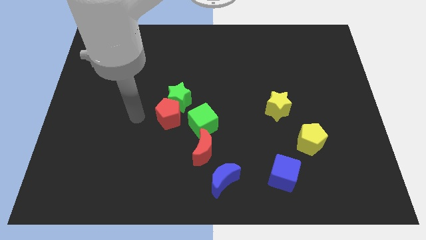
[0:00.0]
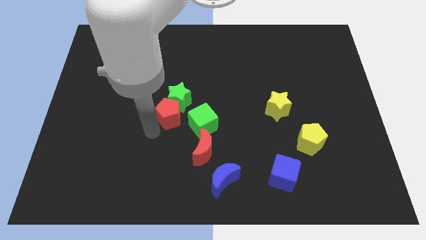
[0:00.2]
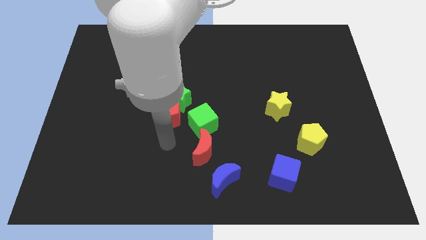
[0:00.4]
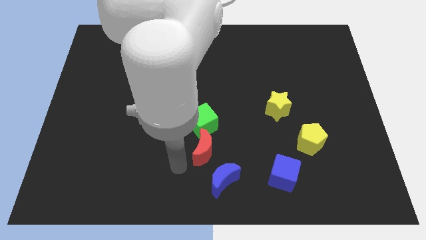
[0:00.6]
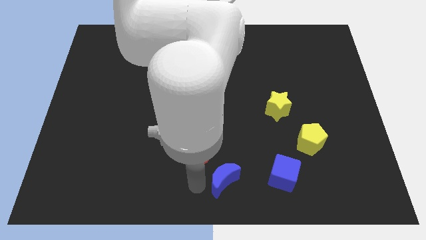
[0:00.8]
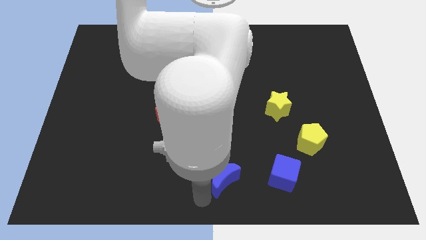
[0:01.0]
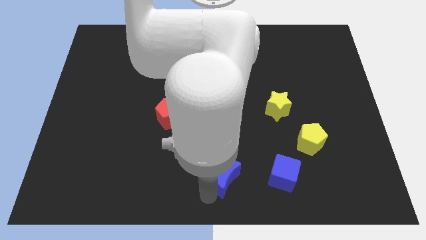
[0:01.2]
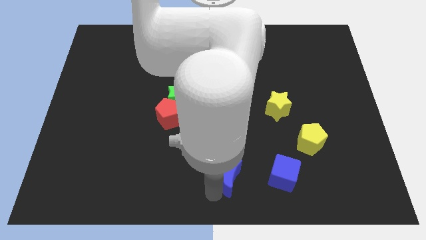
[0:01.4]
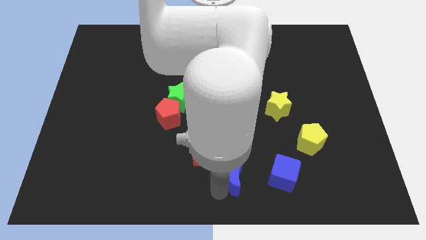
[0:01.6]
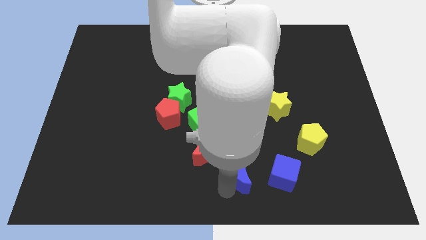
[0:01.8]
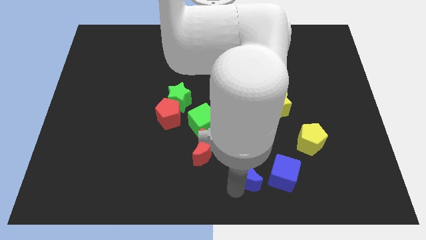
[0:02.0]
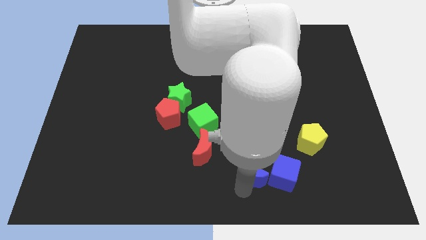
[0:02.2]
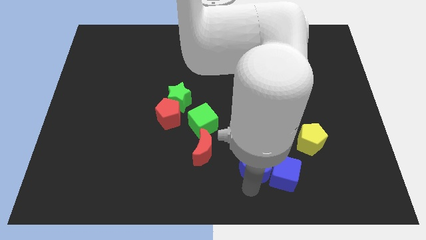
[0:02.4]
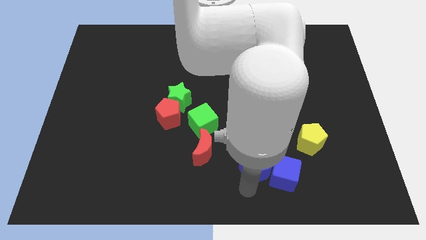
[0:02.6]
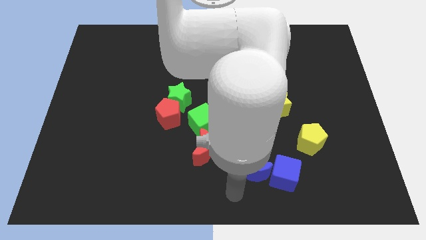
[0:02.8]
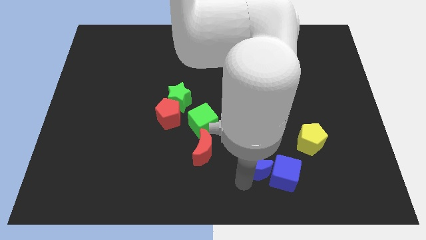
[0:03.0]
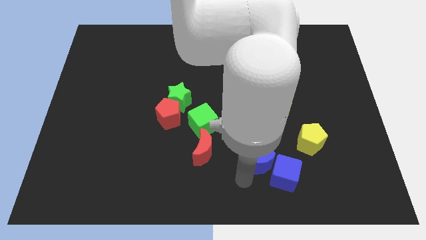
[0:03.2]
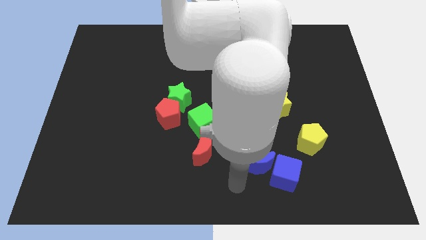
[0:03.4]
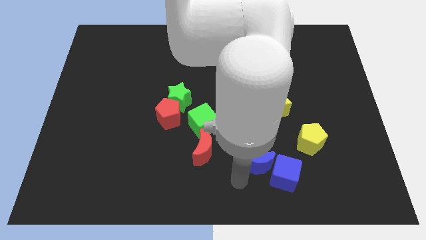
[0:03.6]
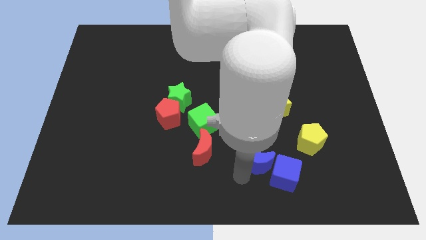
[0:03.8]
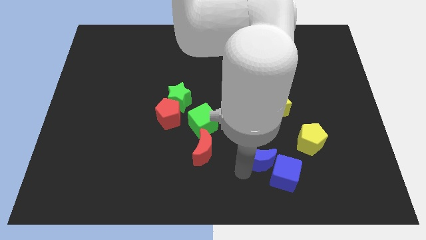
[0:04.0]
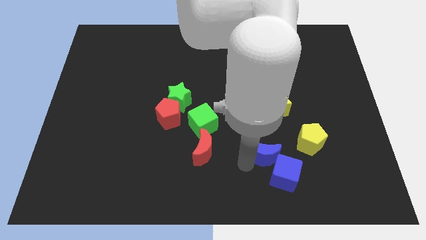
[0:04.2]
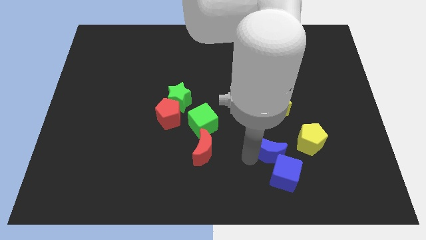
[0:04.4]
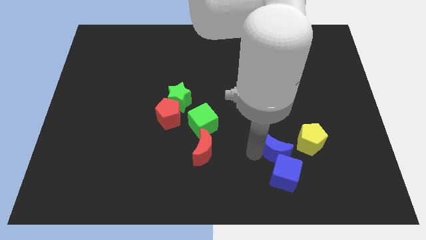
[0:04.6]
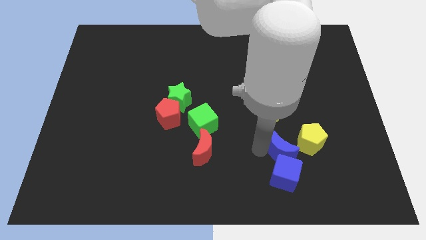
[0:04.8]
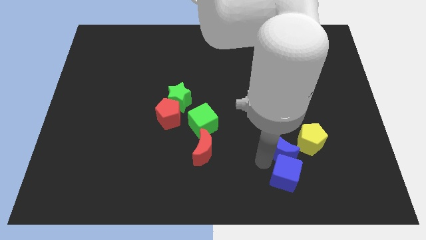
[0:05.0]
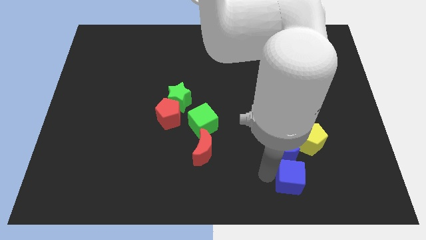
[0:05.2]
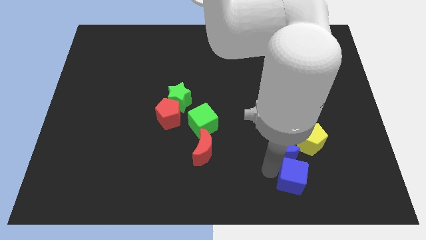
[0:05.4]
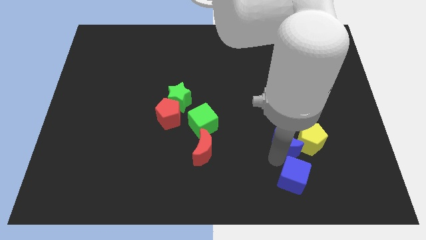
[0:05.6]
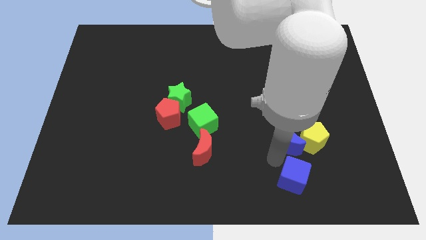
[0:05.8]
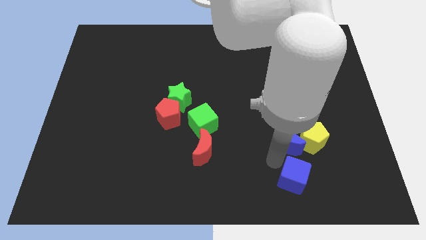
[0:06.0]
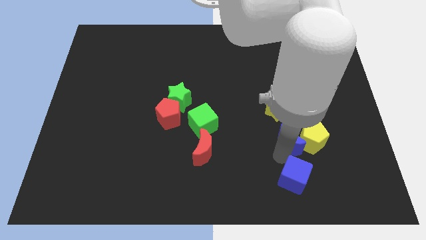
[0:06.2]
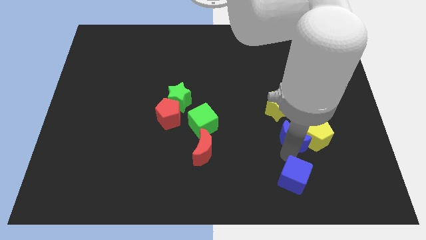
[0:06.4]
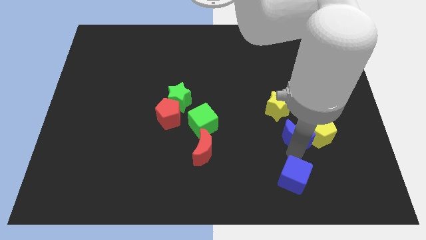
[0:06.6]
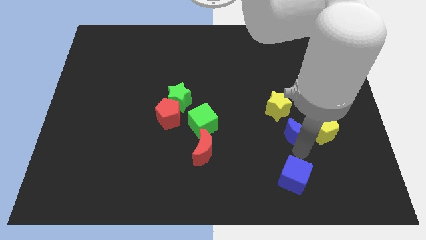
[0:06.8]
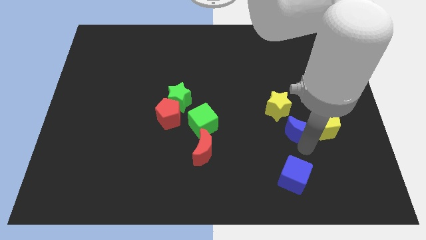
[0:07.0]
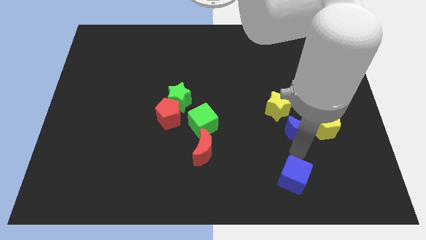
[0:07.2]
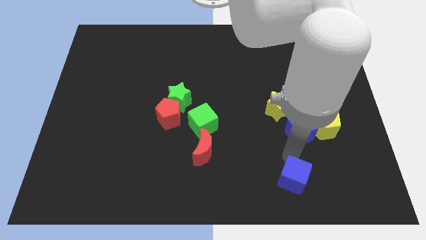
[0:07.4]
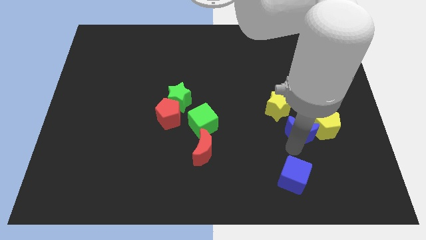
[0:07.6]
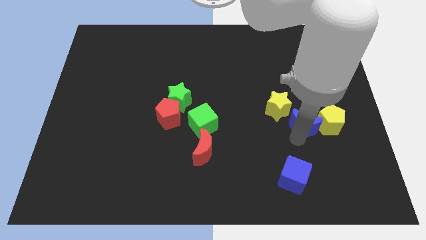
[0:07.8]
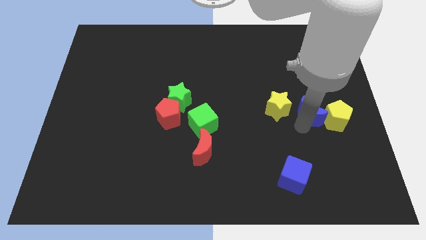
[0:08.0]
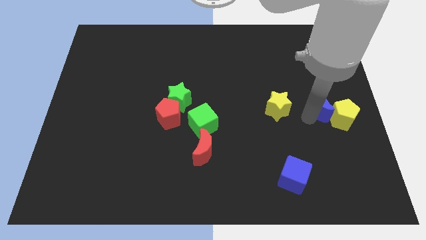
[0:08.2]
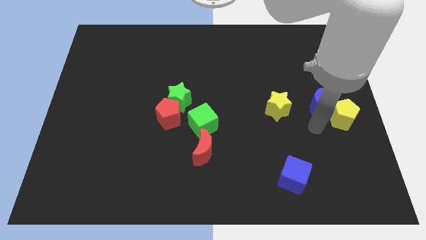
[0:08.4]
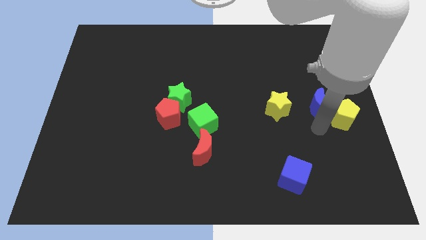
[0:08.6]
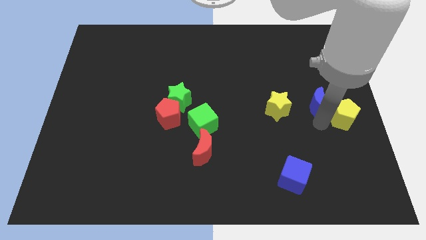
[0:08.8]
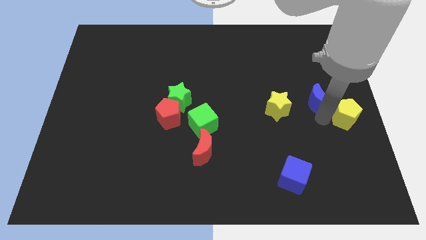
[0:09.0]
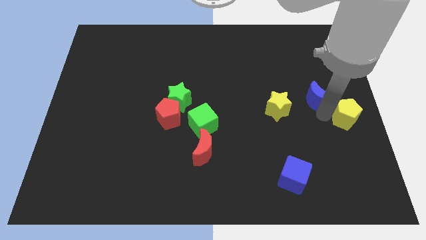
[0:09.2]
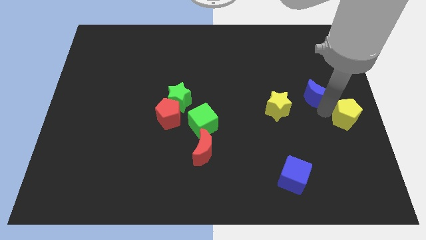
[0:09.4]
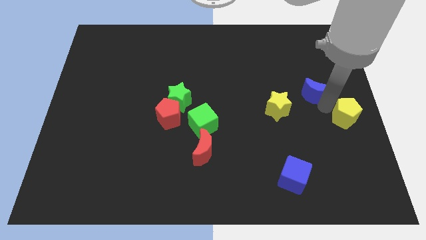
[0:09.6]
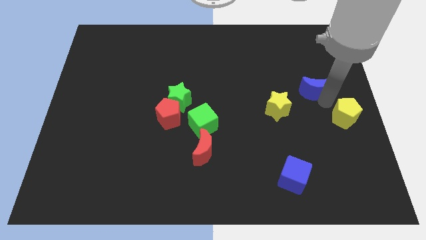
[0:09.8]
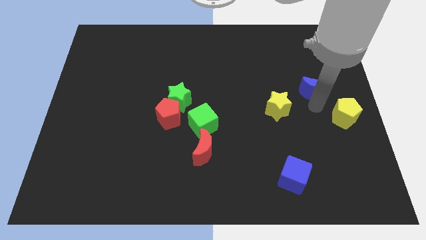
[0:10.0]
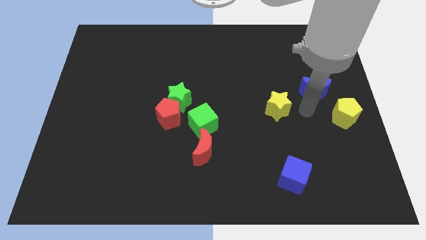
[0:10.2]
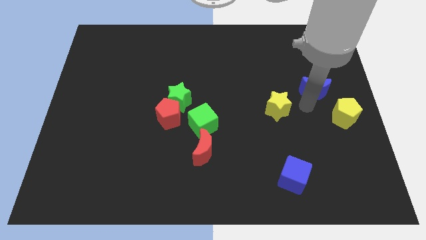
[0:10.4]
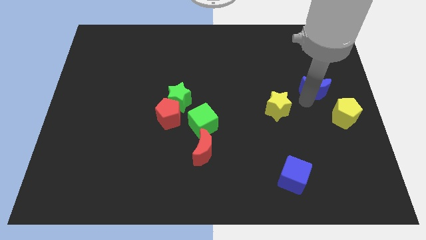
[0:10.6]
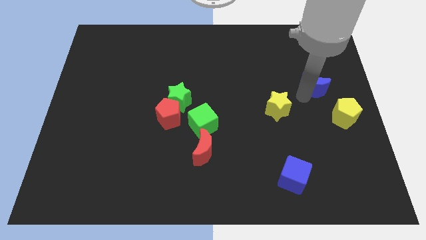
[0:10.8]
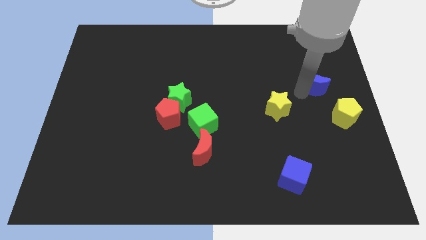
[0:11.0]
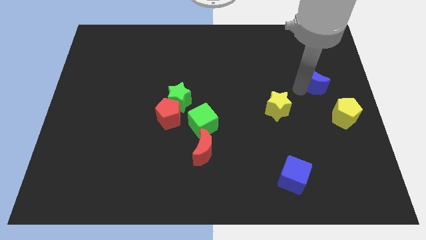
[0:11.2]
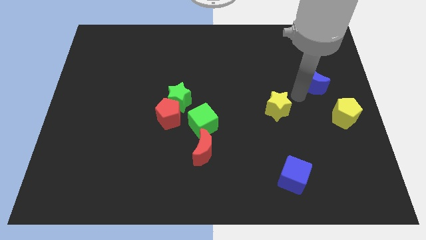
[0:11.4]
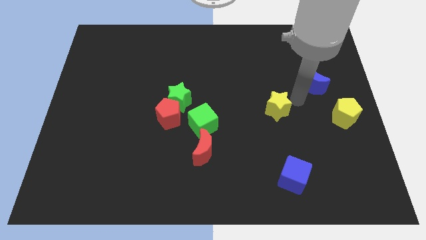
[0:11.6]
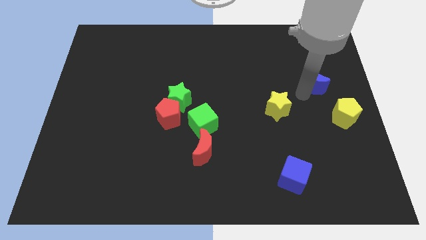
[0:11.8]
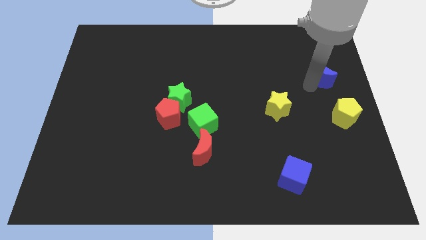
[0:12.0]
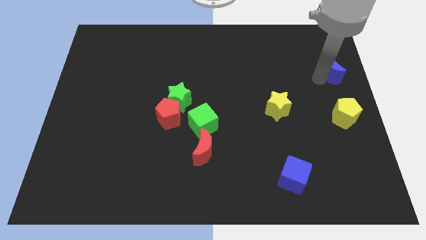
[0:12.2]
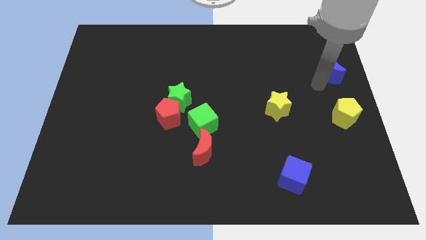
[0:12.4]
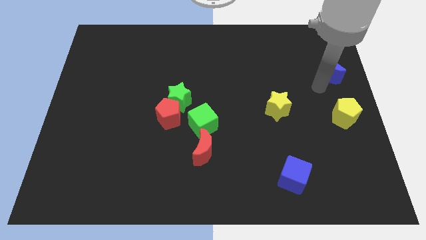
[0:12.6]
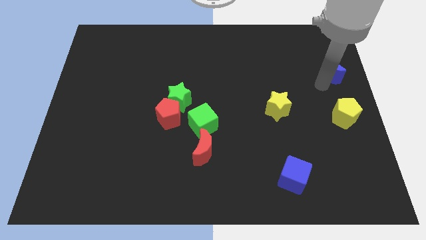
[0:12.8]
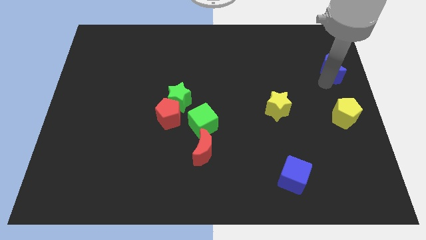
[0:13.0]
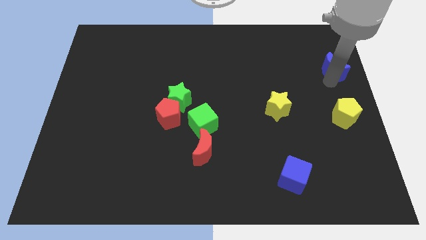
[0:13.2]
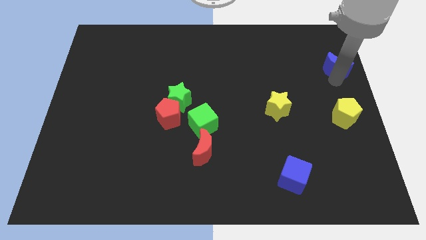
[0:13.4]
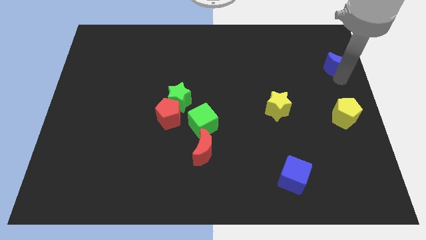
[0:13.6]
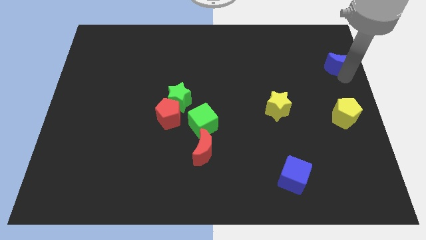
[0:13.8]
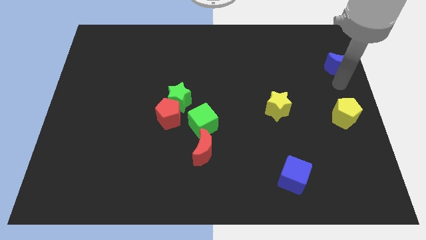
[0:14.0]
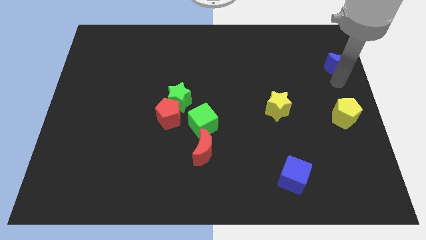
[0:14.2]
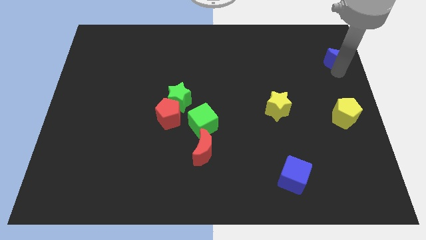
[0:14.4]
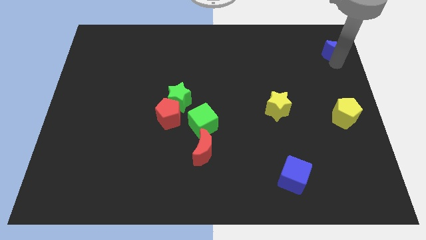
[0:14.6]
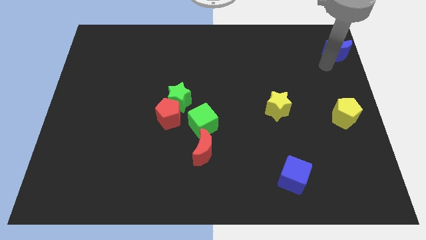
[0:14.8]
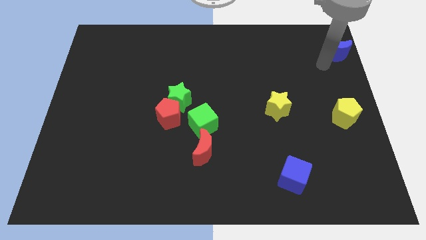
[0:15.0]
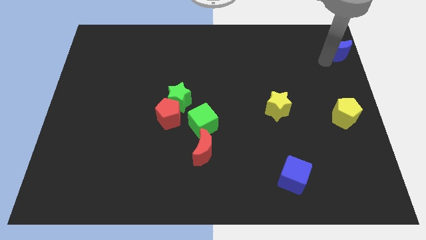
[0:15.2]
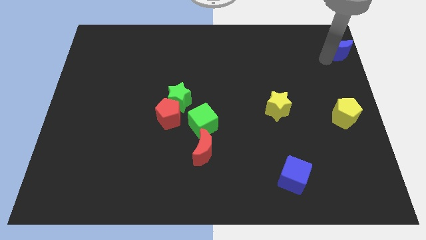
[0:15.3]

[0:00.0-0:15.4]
slide the blue moon to the top right
